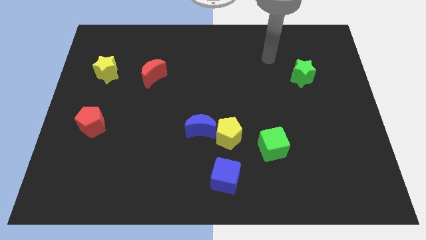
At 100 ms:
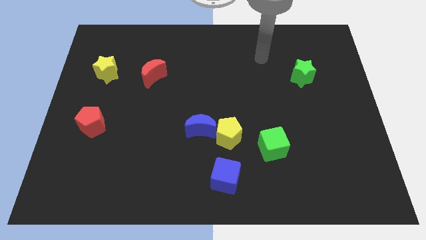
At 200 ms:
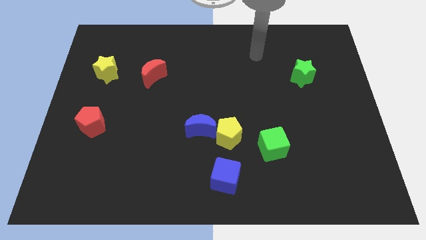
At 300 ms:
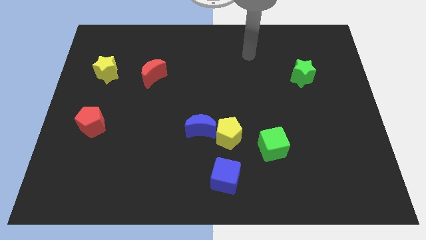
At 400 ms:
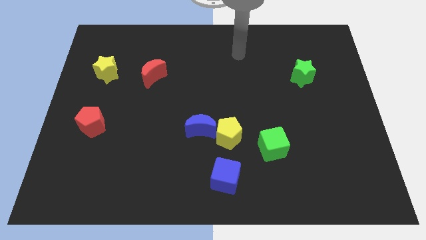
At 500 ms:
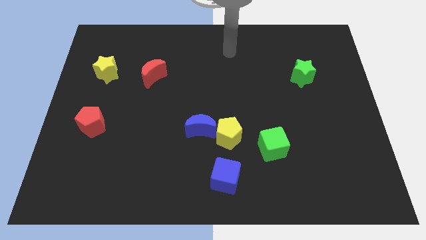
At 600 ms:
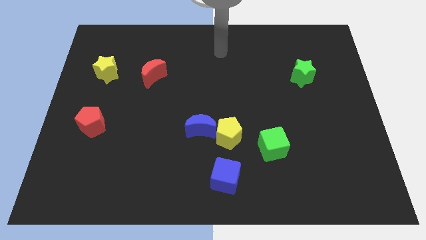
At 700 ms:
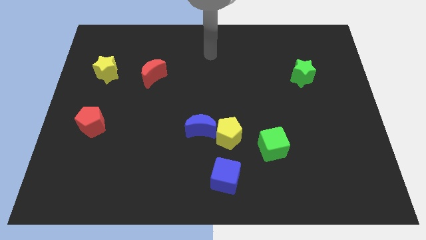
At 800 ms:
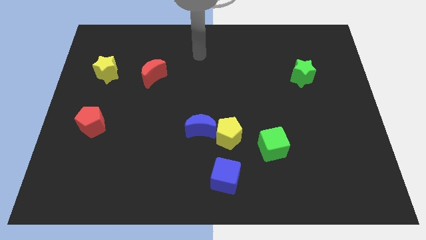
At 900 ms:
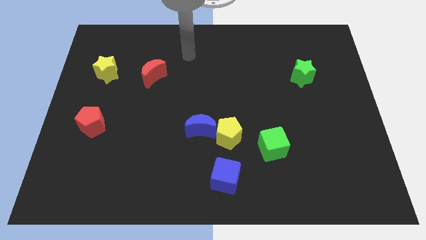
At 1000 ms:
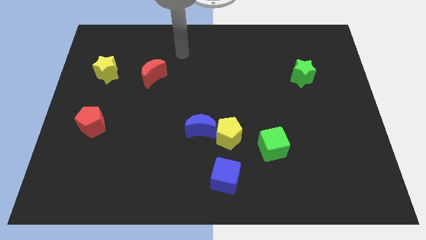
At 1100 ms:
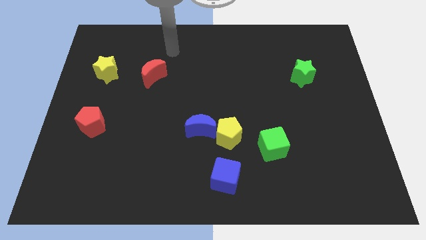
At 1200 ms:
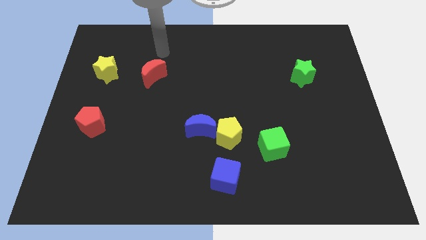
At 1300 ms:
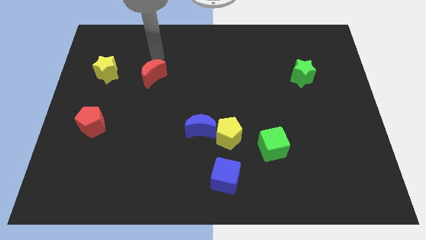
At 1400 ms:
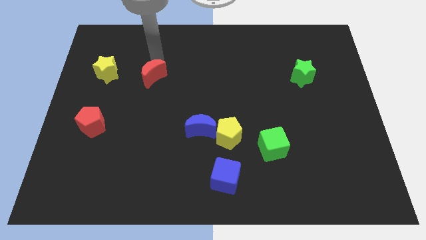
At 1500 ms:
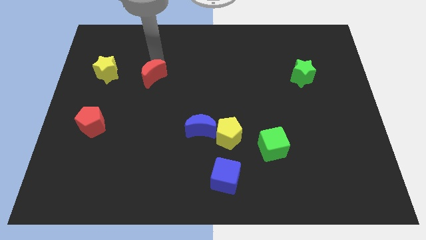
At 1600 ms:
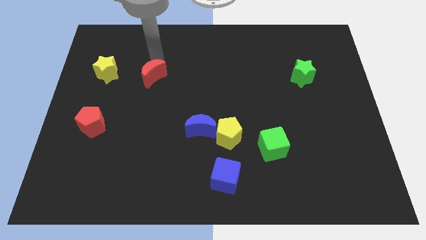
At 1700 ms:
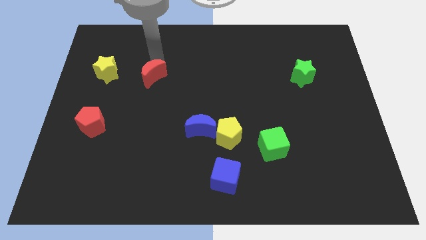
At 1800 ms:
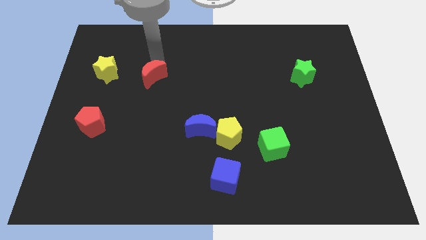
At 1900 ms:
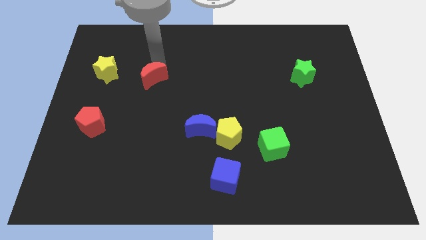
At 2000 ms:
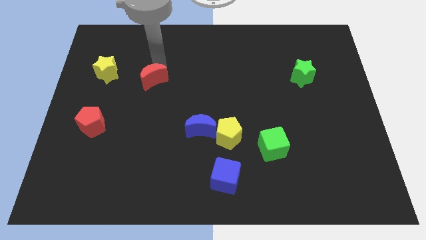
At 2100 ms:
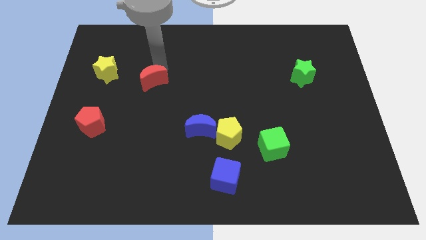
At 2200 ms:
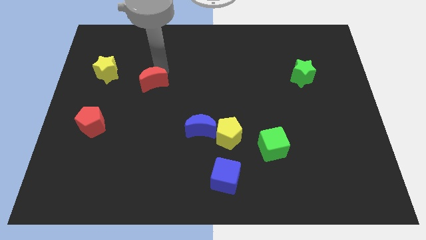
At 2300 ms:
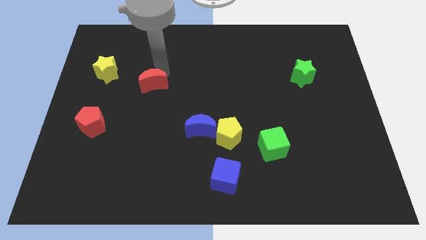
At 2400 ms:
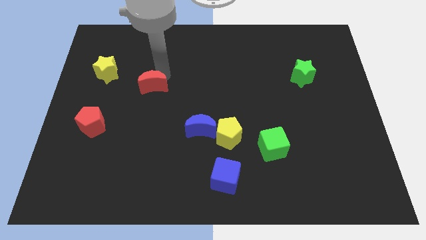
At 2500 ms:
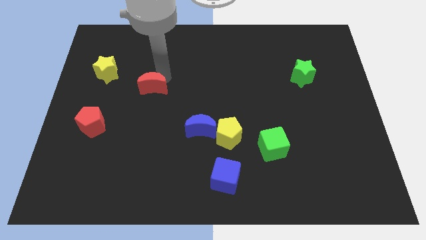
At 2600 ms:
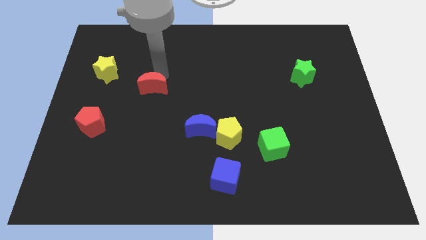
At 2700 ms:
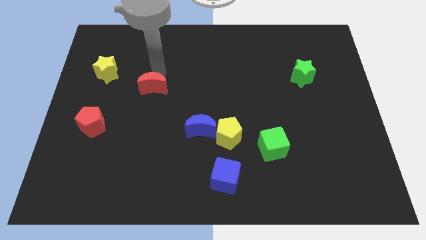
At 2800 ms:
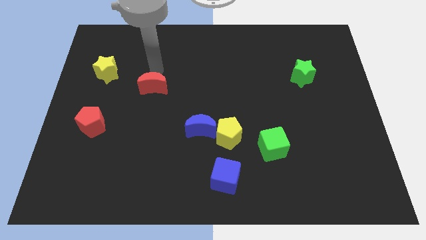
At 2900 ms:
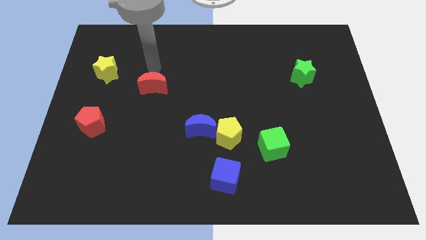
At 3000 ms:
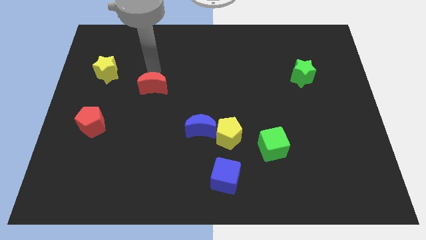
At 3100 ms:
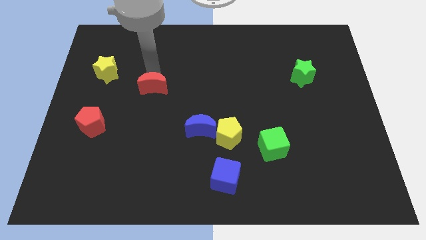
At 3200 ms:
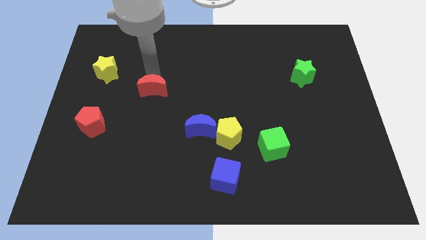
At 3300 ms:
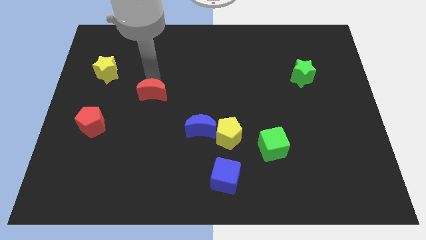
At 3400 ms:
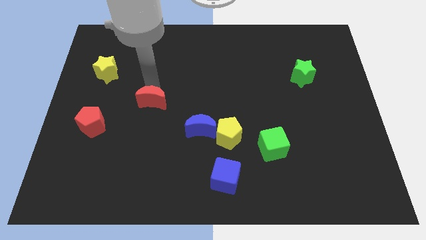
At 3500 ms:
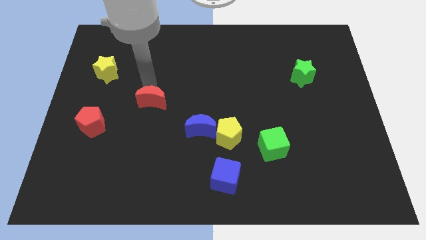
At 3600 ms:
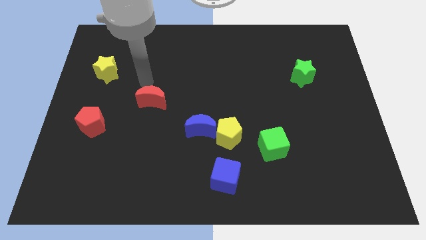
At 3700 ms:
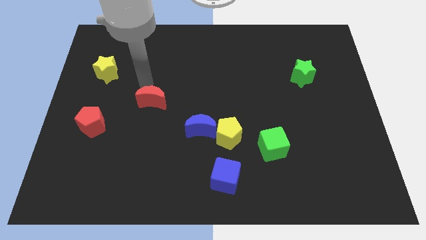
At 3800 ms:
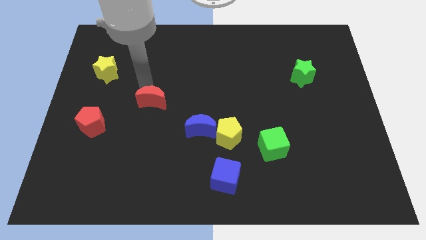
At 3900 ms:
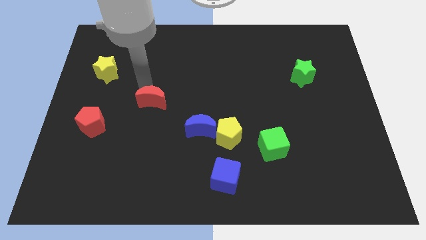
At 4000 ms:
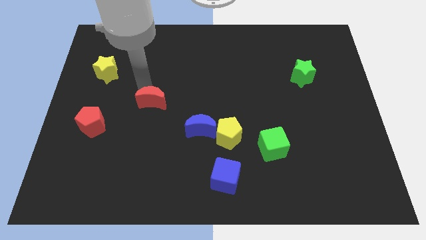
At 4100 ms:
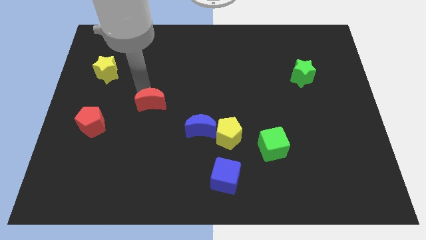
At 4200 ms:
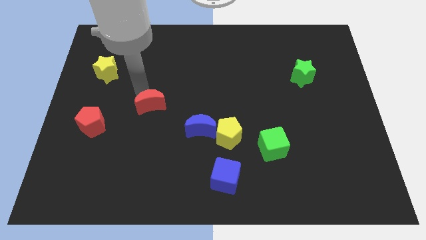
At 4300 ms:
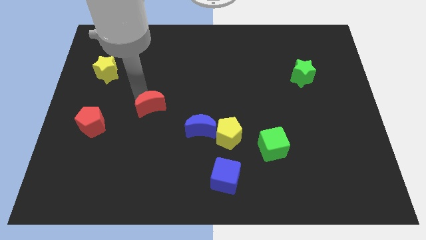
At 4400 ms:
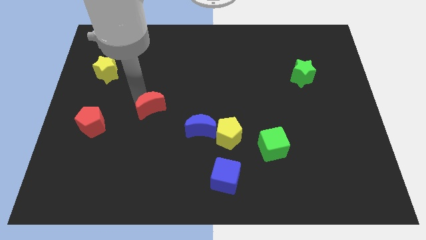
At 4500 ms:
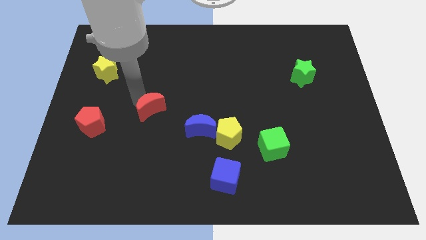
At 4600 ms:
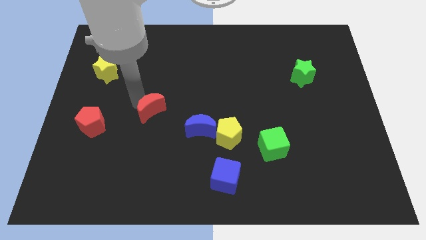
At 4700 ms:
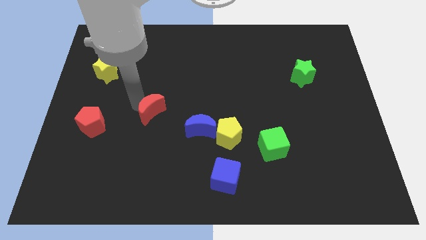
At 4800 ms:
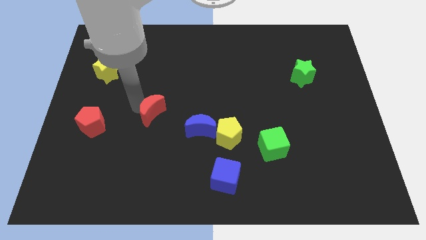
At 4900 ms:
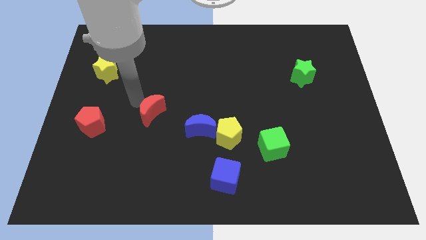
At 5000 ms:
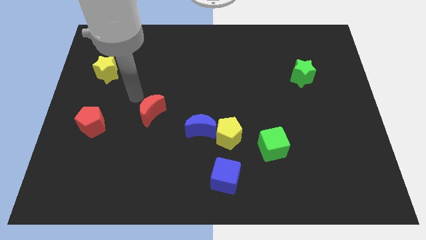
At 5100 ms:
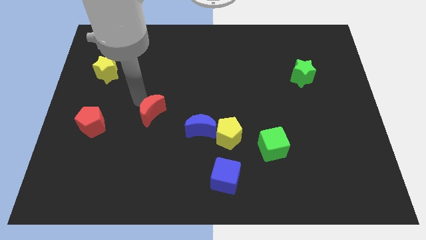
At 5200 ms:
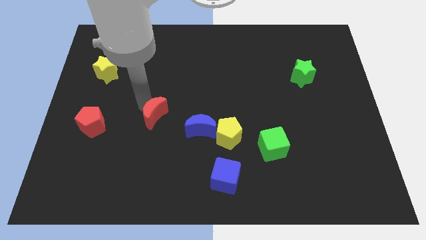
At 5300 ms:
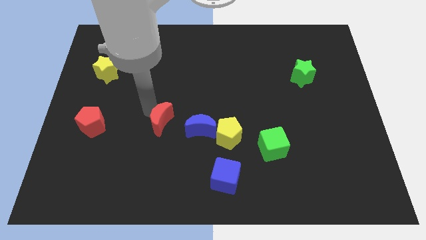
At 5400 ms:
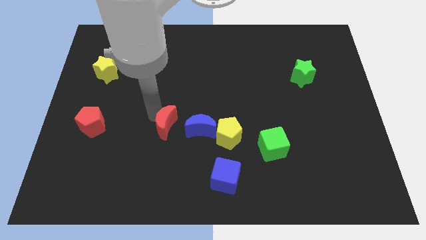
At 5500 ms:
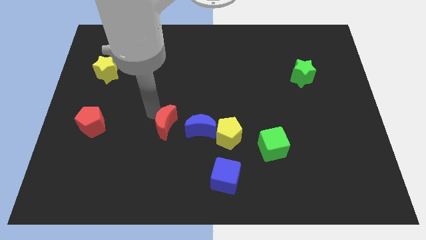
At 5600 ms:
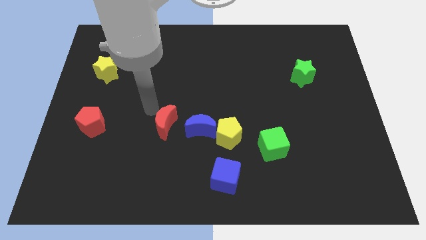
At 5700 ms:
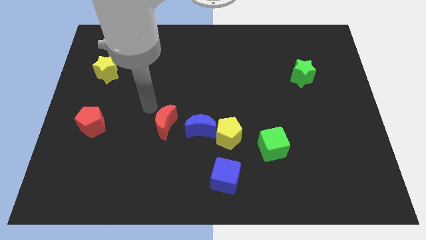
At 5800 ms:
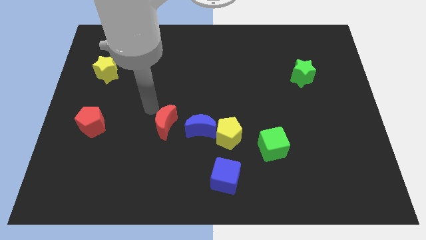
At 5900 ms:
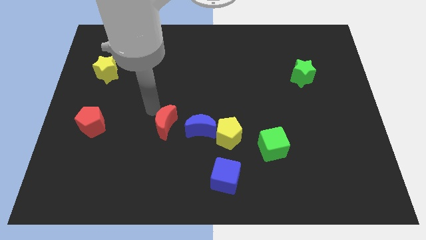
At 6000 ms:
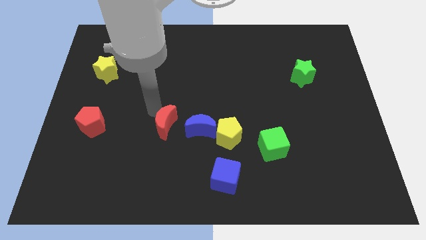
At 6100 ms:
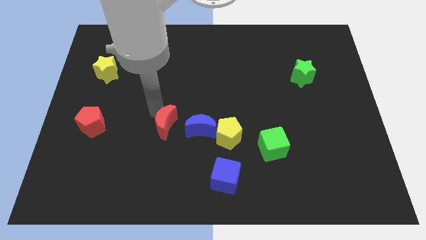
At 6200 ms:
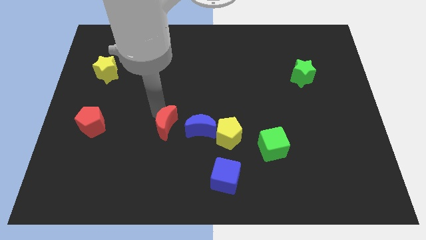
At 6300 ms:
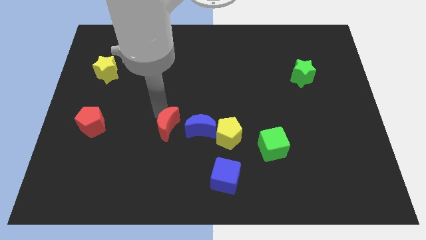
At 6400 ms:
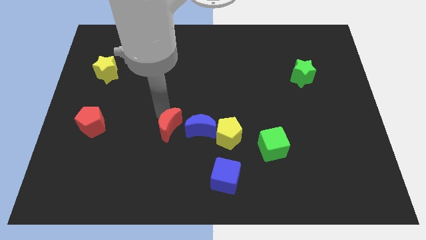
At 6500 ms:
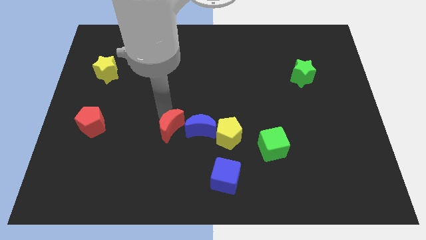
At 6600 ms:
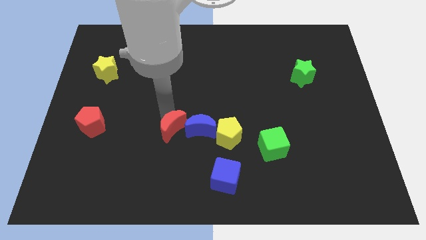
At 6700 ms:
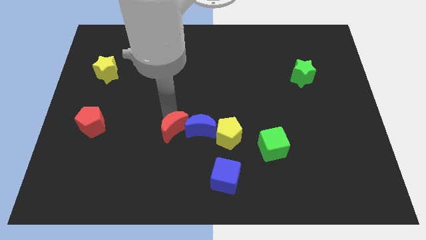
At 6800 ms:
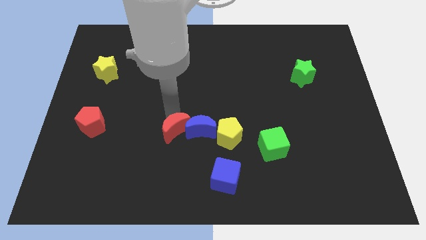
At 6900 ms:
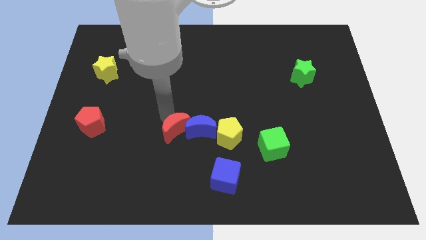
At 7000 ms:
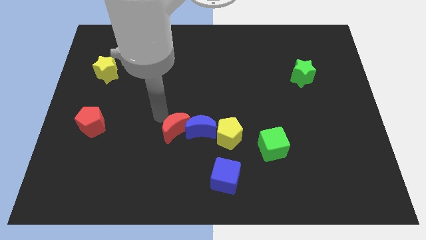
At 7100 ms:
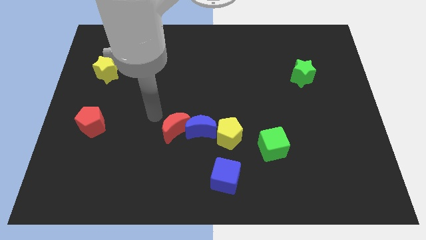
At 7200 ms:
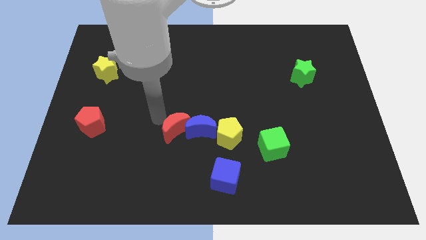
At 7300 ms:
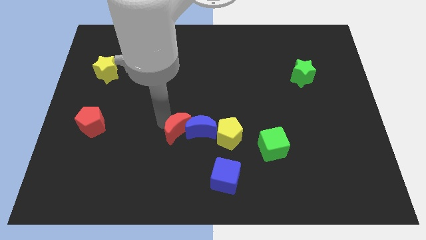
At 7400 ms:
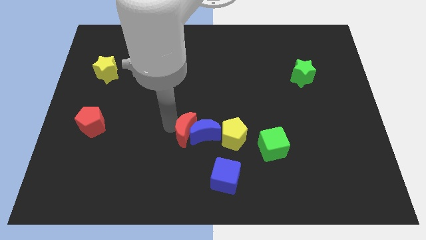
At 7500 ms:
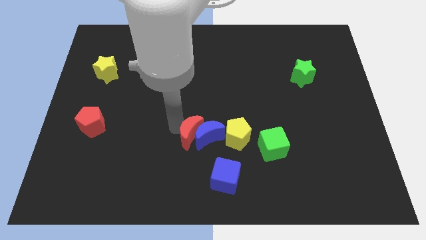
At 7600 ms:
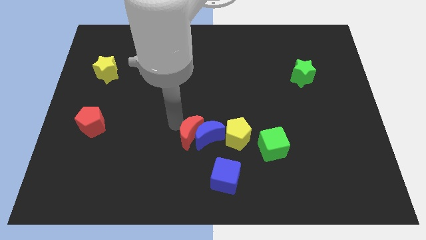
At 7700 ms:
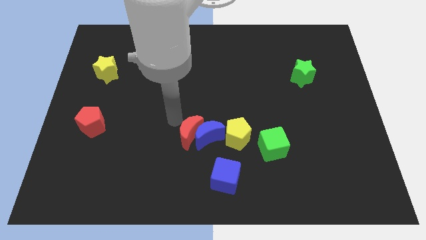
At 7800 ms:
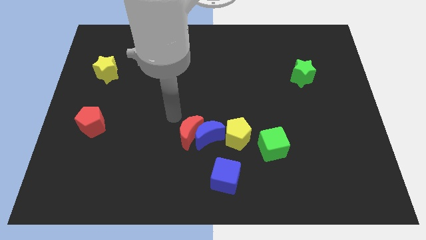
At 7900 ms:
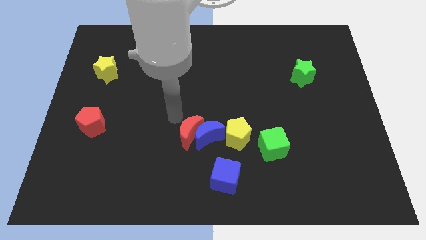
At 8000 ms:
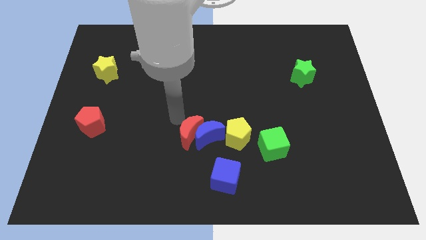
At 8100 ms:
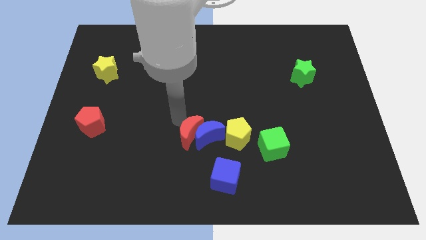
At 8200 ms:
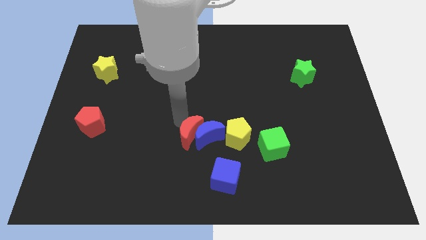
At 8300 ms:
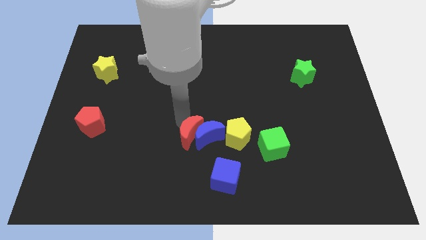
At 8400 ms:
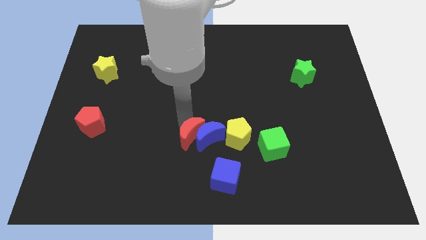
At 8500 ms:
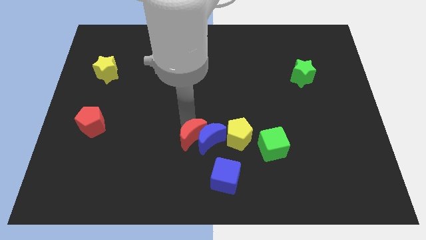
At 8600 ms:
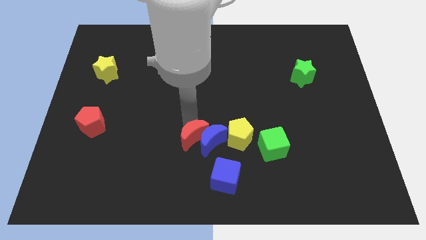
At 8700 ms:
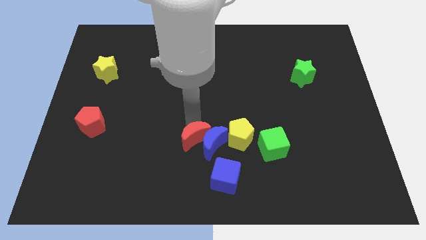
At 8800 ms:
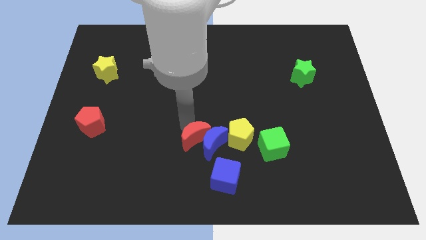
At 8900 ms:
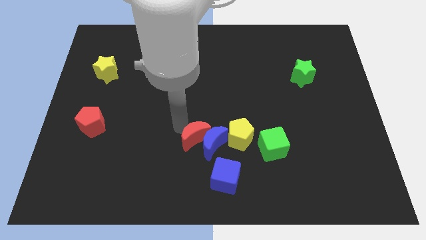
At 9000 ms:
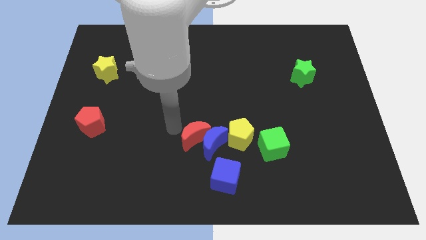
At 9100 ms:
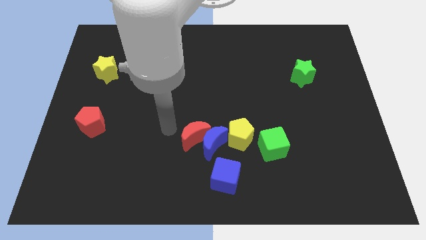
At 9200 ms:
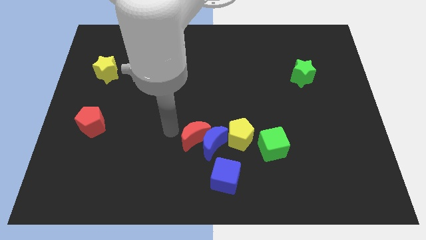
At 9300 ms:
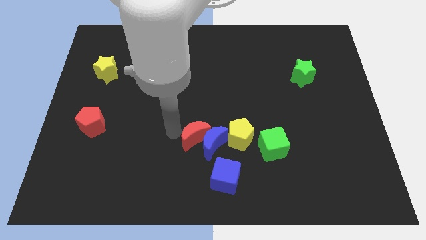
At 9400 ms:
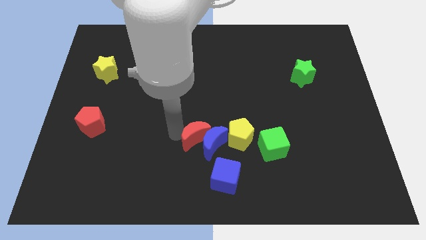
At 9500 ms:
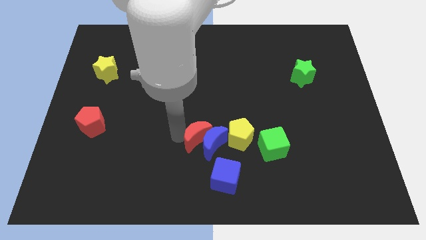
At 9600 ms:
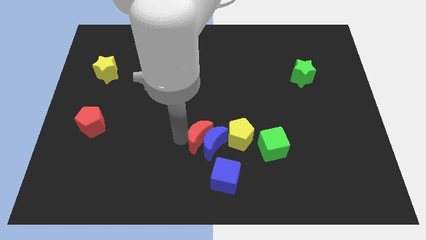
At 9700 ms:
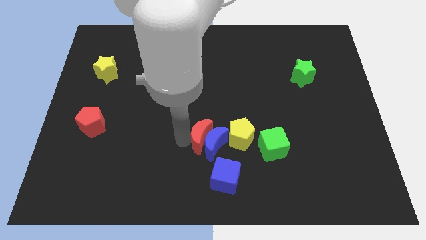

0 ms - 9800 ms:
move the red moon left of the green cube
